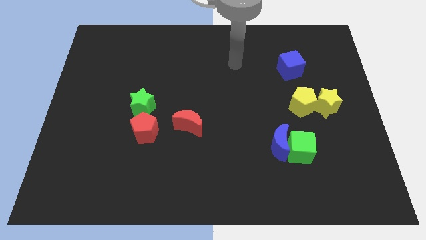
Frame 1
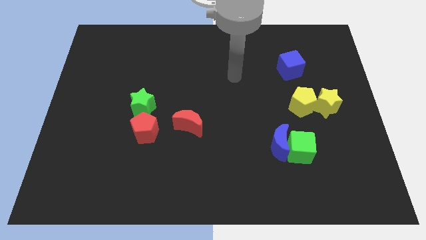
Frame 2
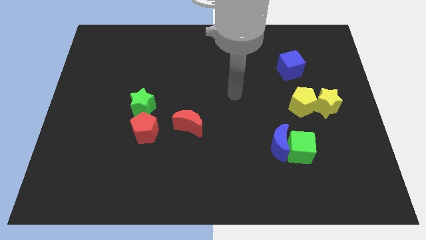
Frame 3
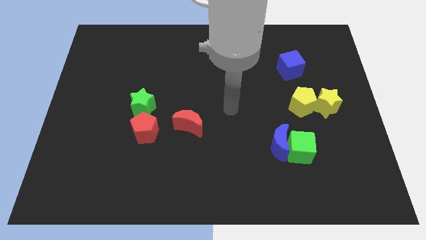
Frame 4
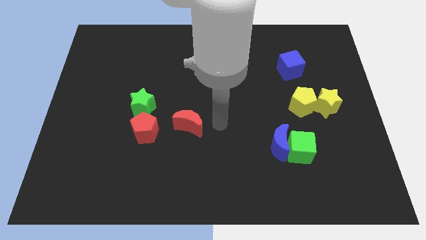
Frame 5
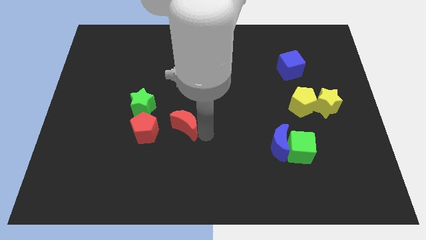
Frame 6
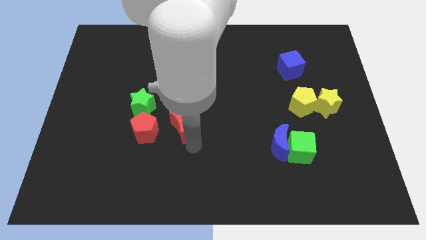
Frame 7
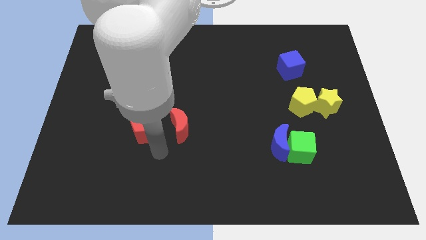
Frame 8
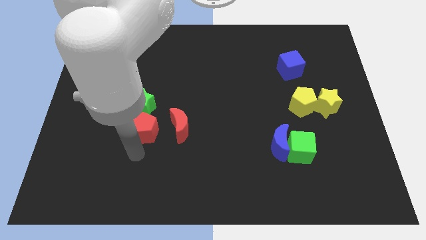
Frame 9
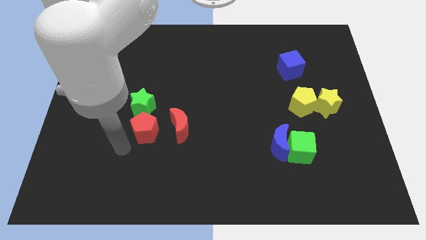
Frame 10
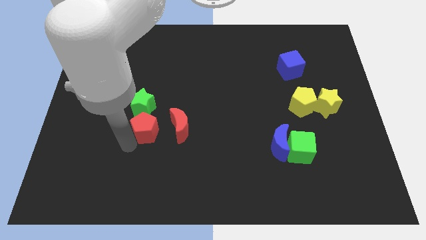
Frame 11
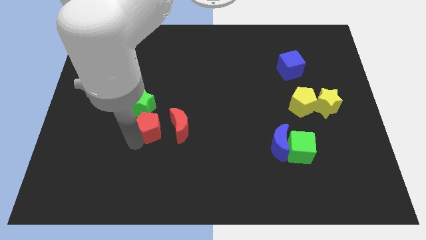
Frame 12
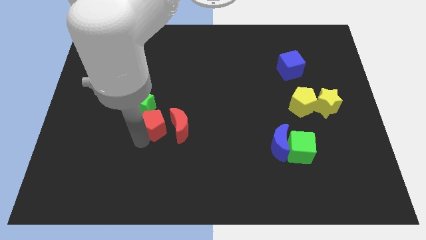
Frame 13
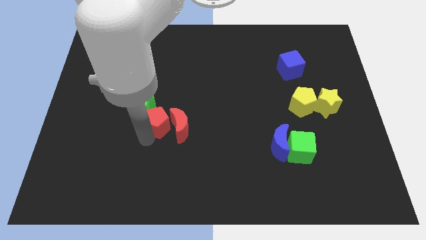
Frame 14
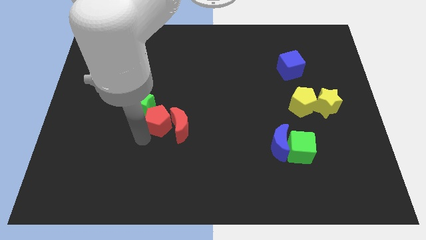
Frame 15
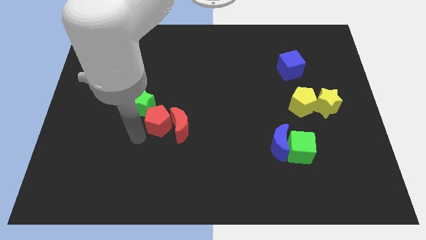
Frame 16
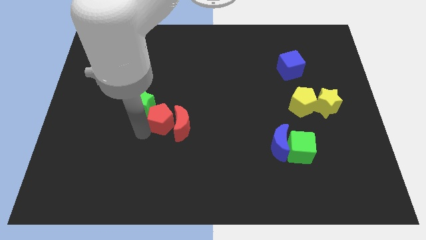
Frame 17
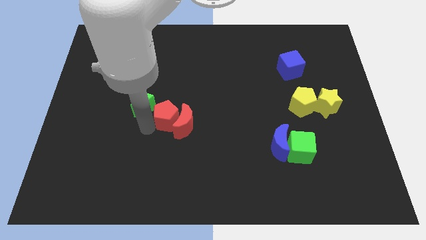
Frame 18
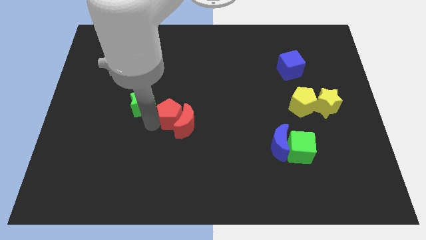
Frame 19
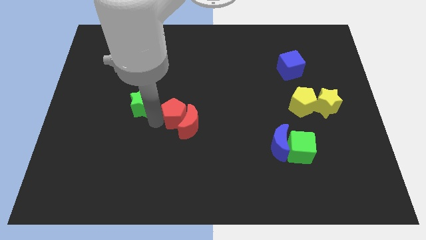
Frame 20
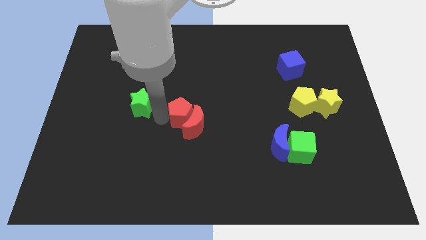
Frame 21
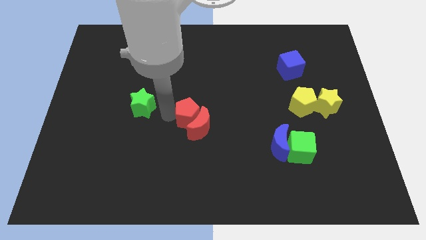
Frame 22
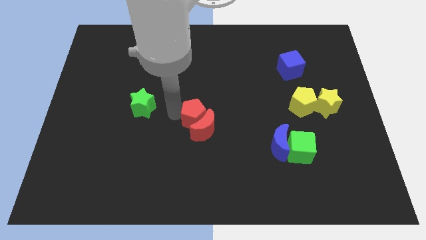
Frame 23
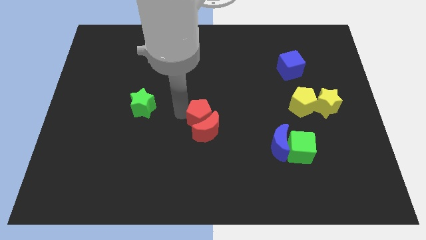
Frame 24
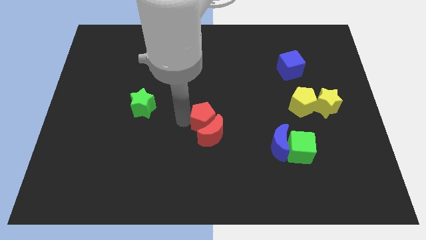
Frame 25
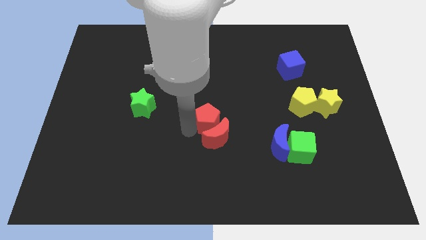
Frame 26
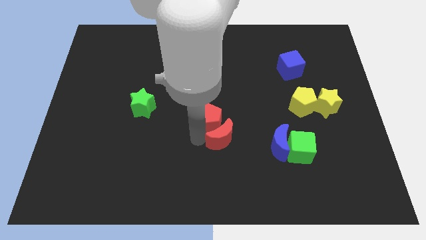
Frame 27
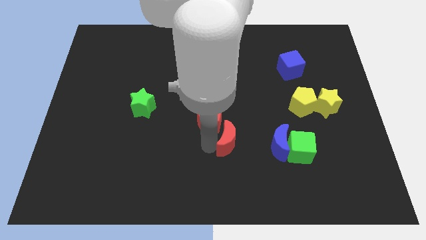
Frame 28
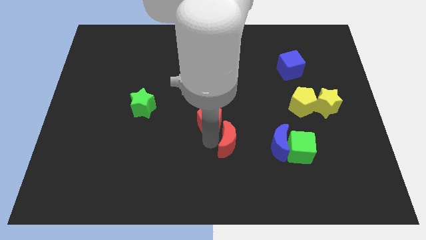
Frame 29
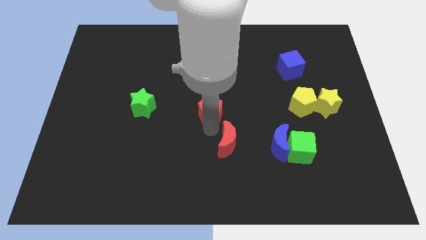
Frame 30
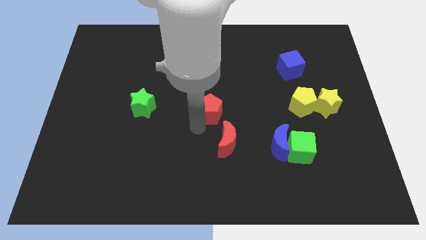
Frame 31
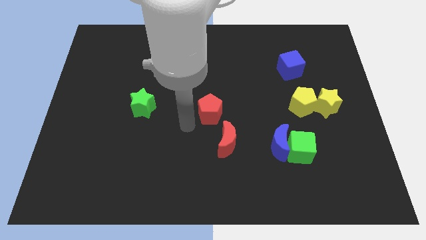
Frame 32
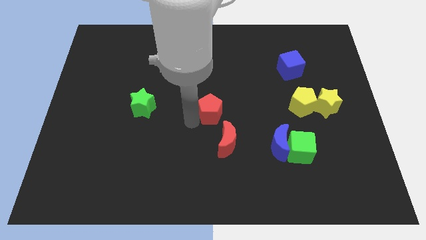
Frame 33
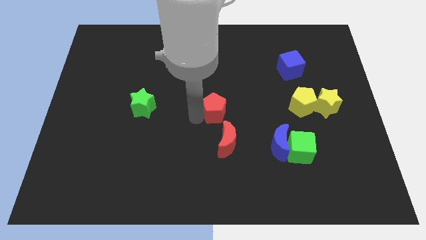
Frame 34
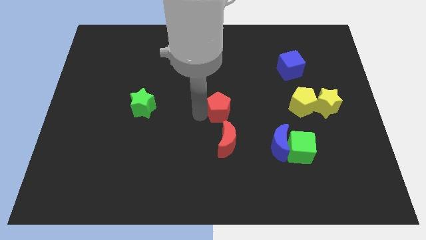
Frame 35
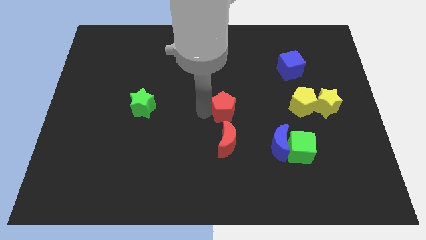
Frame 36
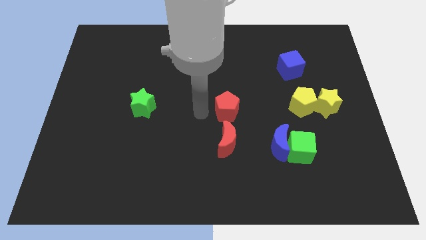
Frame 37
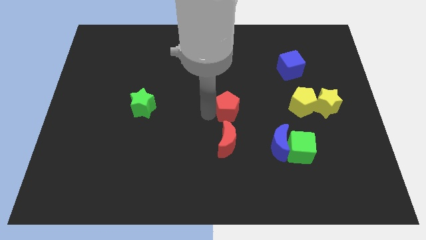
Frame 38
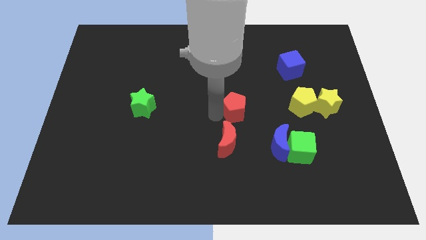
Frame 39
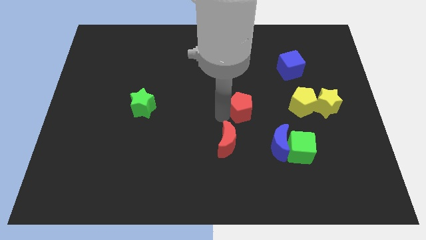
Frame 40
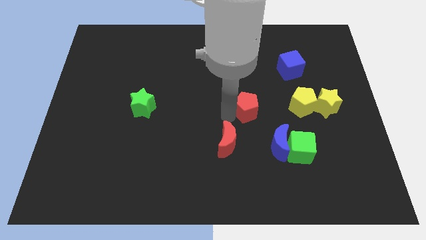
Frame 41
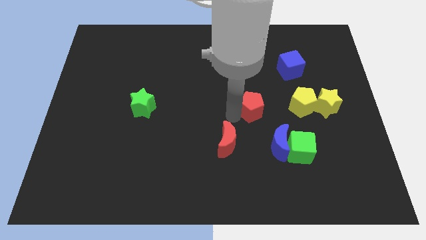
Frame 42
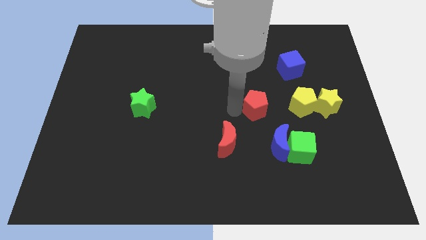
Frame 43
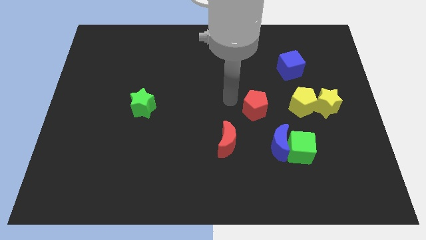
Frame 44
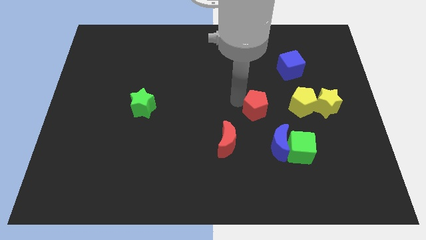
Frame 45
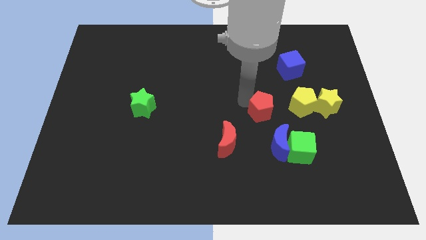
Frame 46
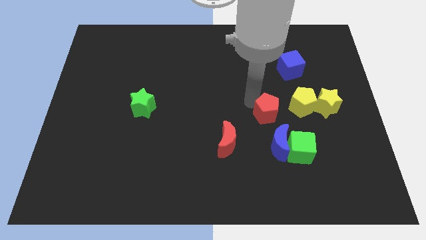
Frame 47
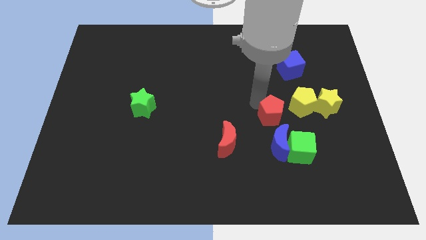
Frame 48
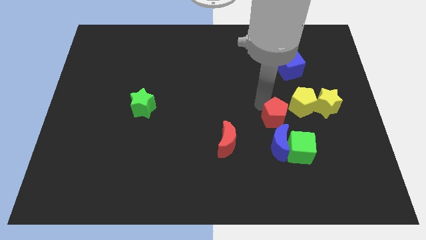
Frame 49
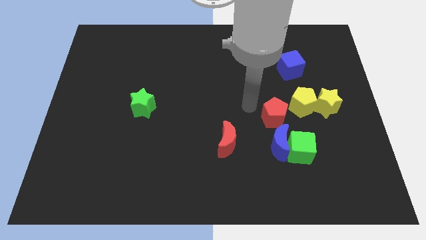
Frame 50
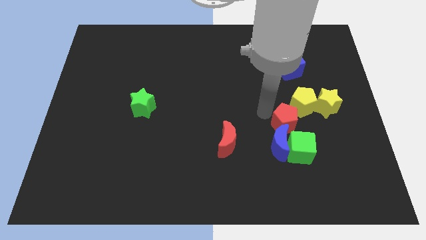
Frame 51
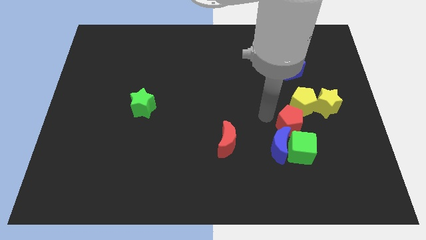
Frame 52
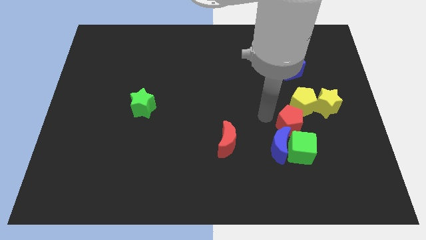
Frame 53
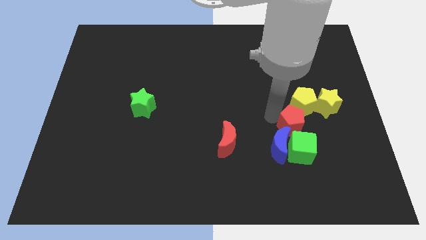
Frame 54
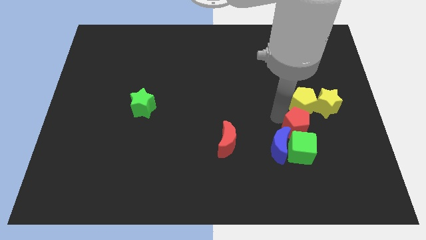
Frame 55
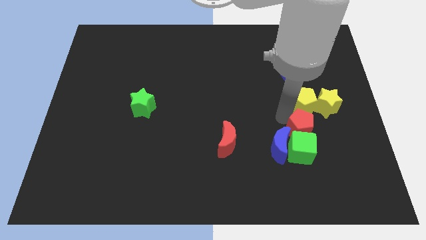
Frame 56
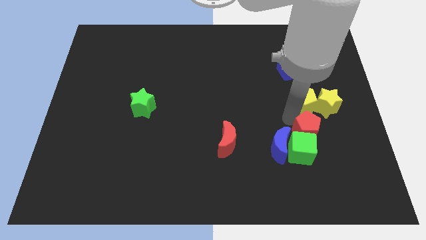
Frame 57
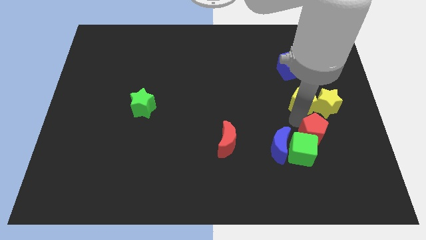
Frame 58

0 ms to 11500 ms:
push the red pentagon to the bottom of the yellow star
